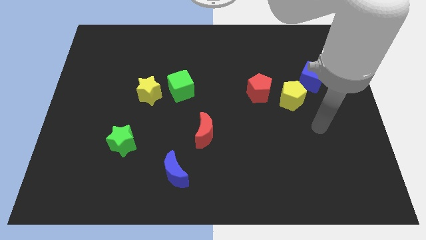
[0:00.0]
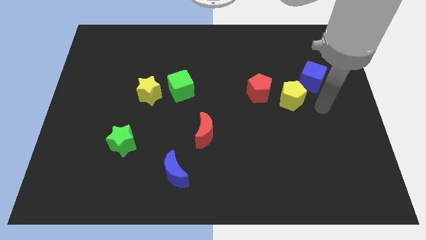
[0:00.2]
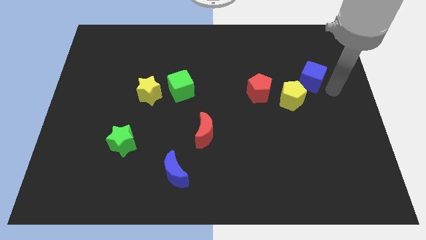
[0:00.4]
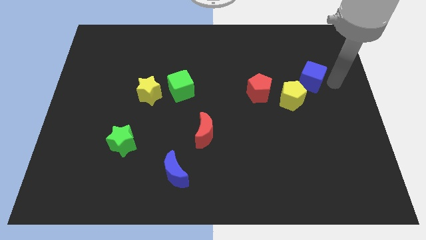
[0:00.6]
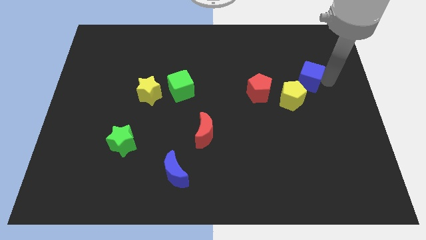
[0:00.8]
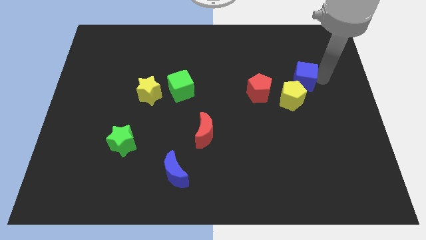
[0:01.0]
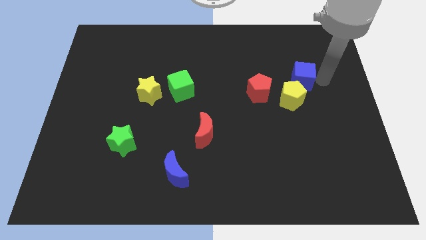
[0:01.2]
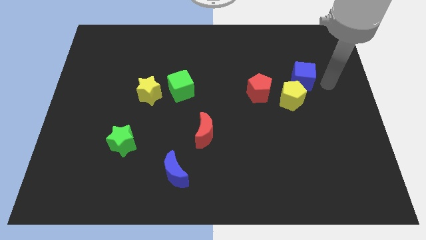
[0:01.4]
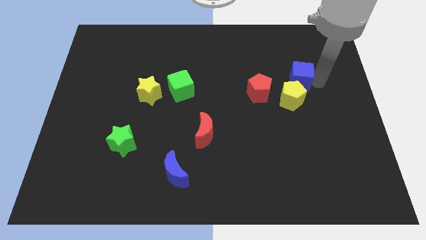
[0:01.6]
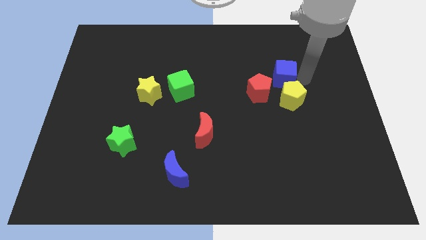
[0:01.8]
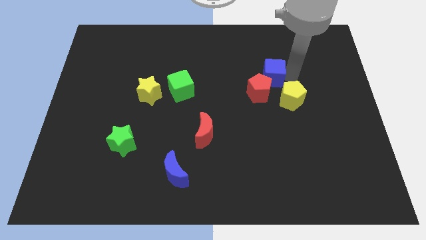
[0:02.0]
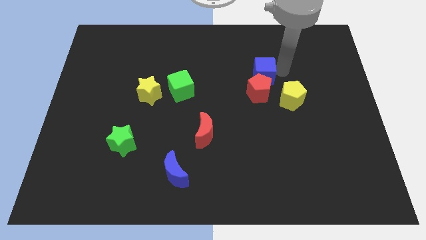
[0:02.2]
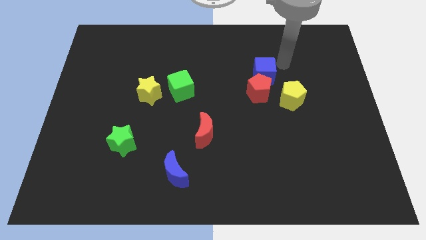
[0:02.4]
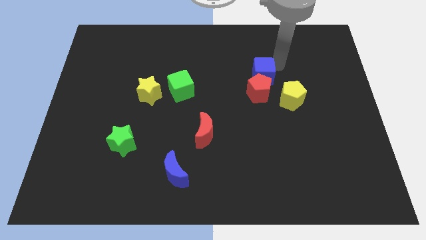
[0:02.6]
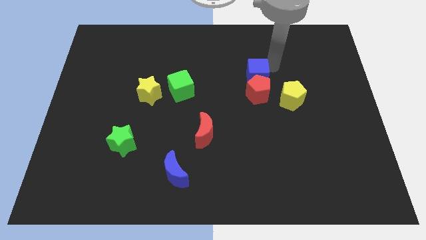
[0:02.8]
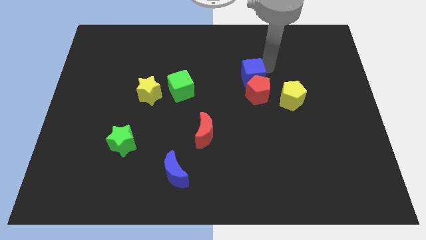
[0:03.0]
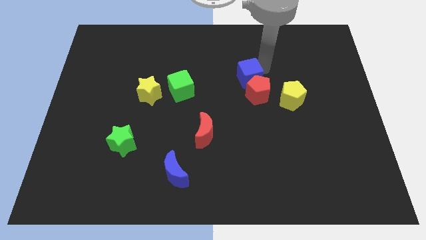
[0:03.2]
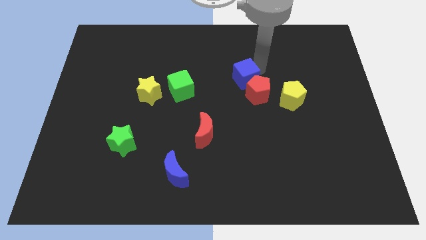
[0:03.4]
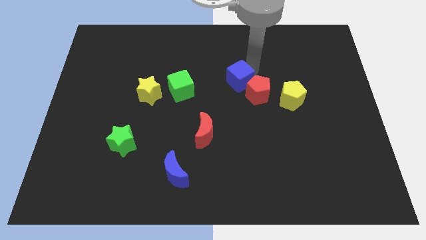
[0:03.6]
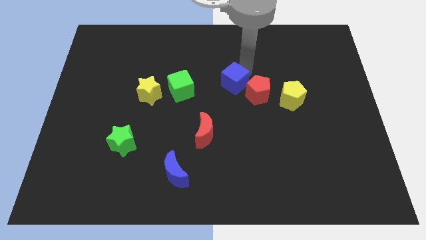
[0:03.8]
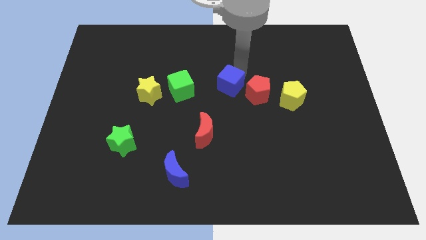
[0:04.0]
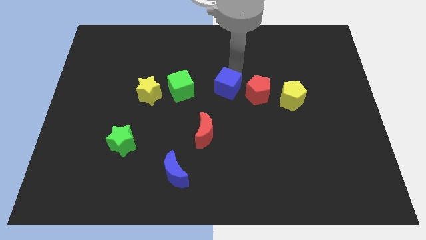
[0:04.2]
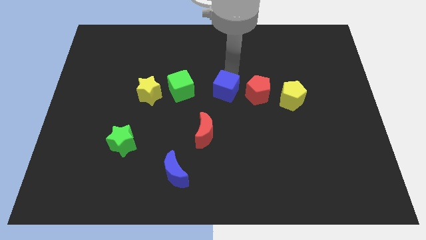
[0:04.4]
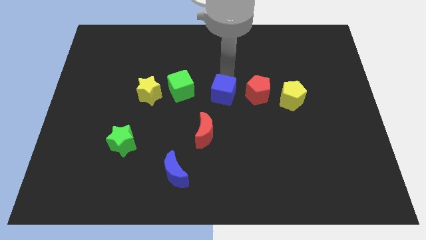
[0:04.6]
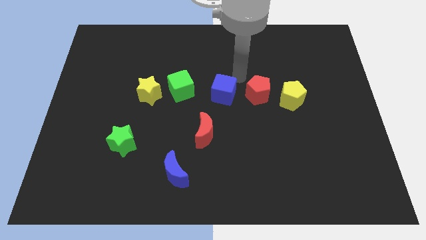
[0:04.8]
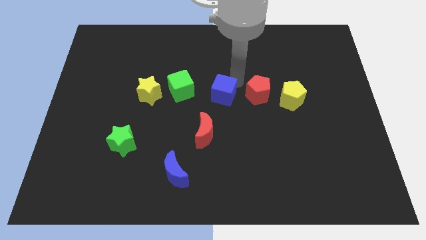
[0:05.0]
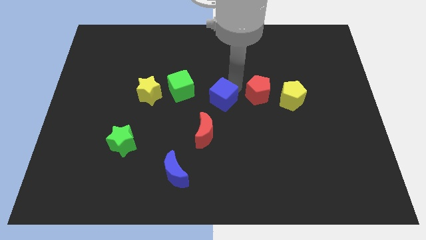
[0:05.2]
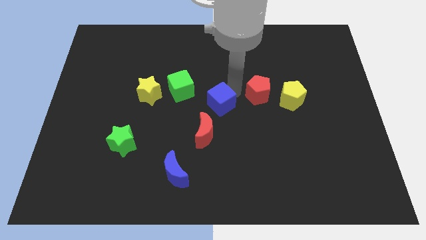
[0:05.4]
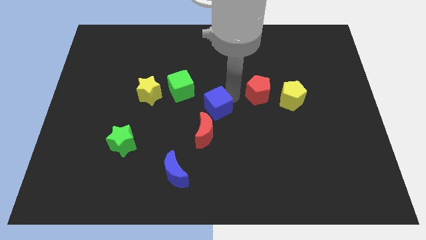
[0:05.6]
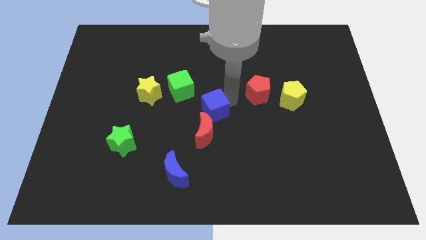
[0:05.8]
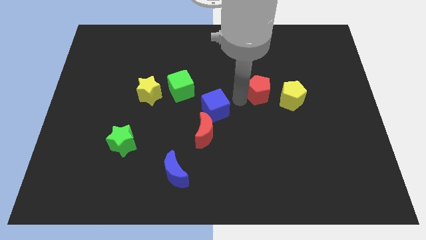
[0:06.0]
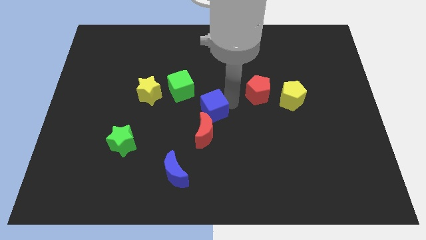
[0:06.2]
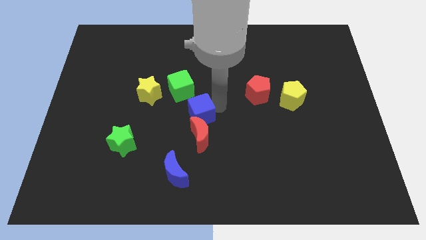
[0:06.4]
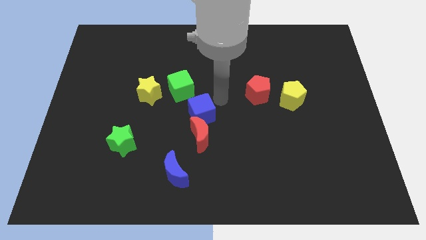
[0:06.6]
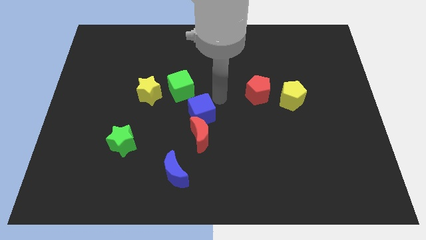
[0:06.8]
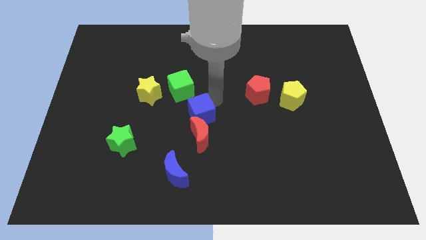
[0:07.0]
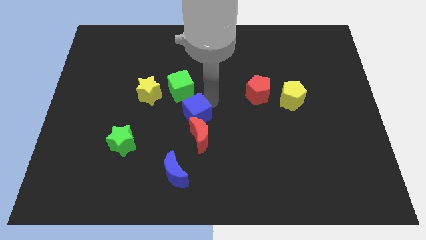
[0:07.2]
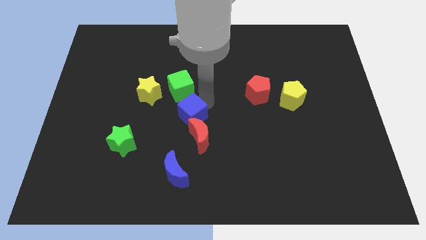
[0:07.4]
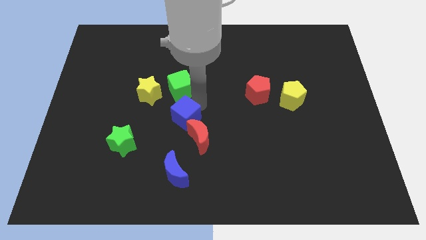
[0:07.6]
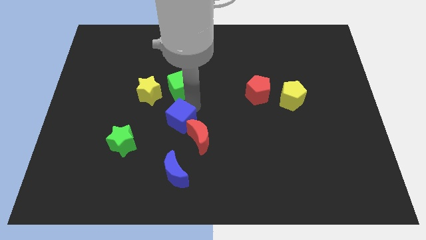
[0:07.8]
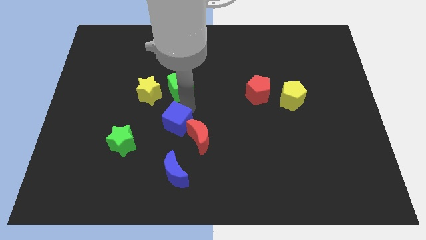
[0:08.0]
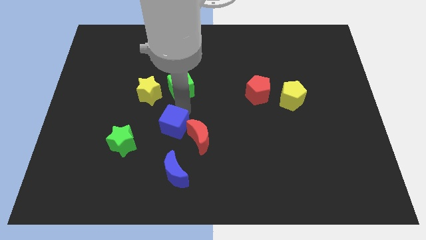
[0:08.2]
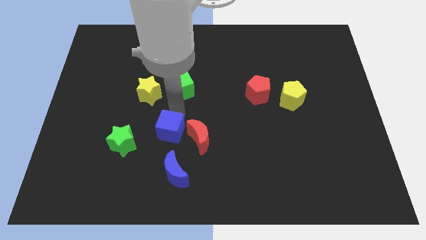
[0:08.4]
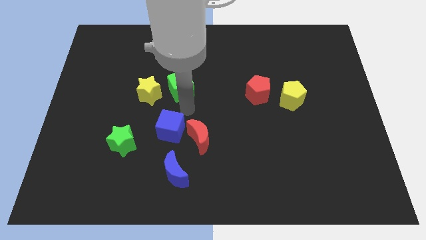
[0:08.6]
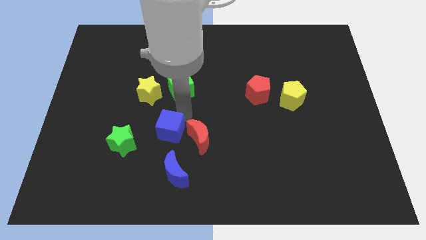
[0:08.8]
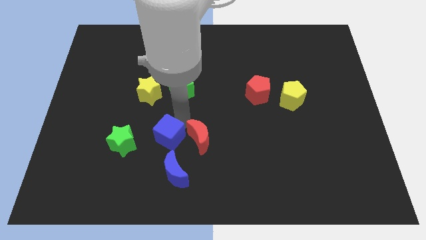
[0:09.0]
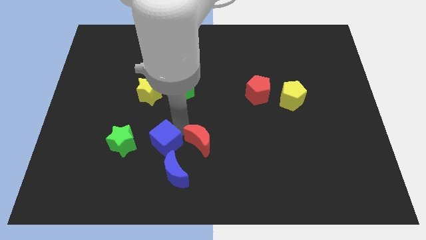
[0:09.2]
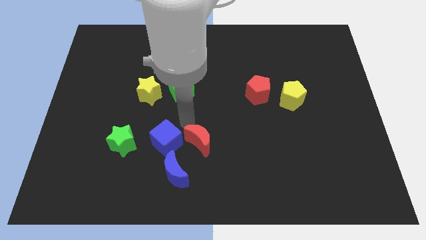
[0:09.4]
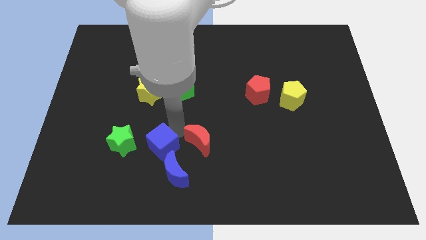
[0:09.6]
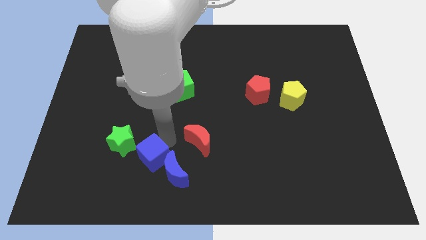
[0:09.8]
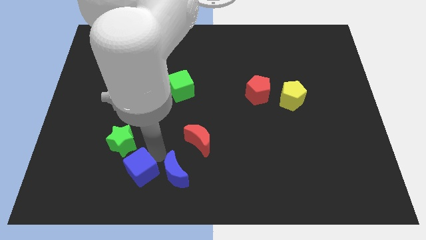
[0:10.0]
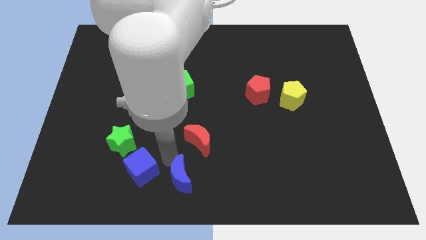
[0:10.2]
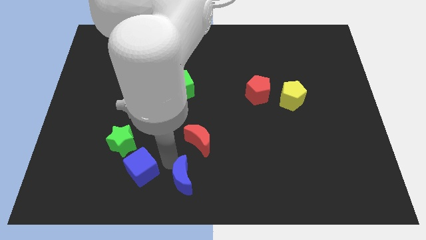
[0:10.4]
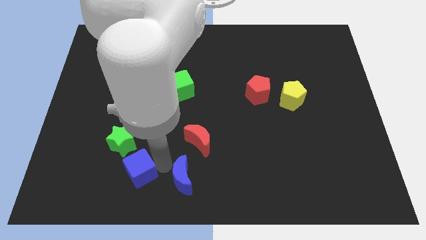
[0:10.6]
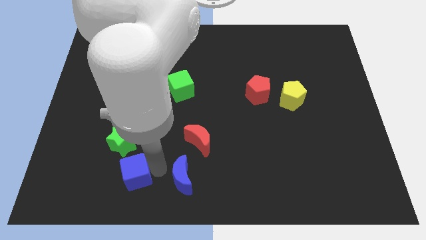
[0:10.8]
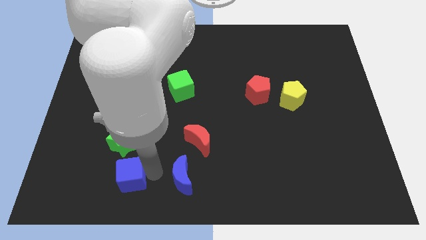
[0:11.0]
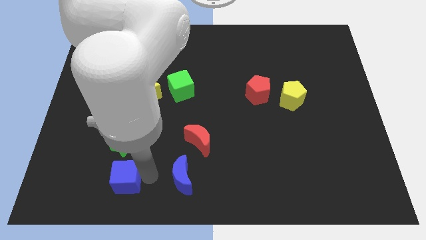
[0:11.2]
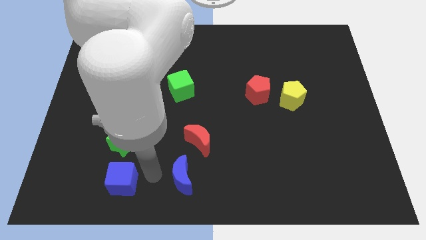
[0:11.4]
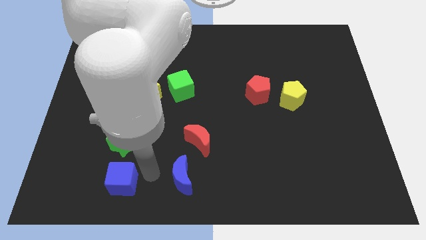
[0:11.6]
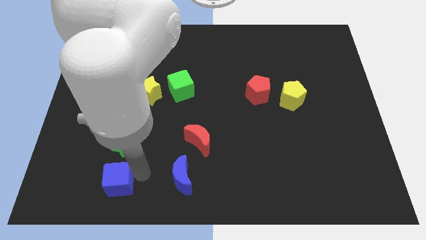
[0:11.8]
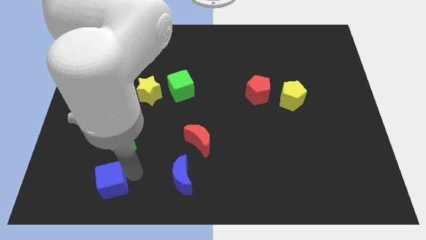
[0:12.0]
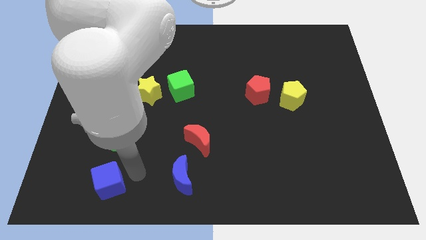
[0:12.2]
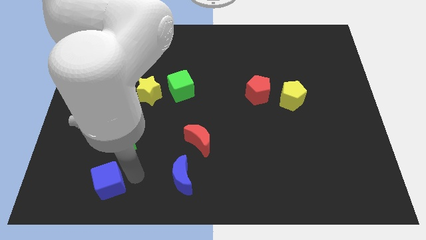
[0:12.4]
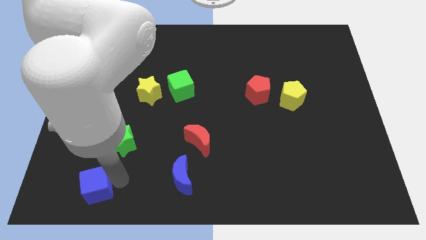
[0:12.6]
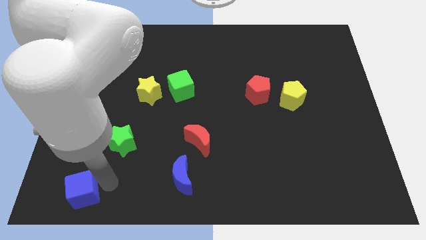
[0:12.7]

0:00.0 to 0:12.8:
put the blue cube to the bottom left of the board
